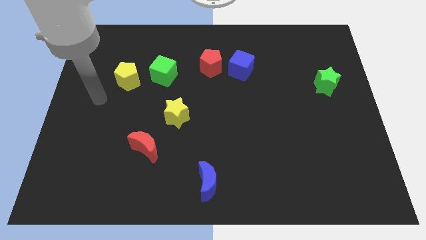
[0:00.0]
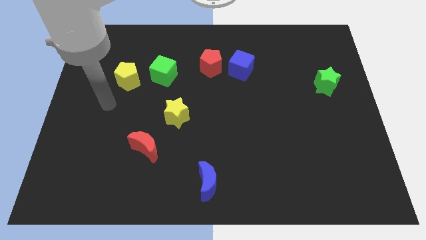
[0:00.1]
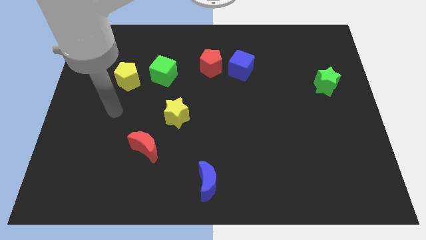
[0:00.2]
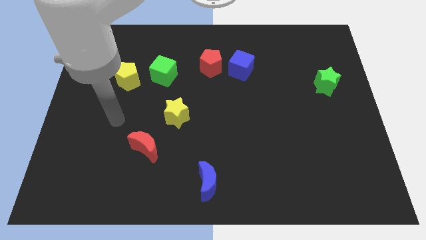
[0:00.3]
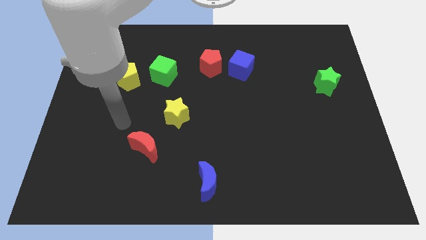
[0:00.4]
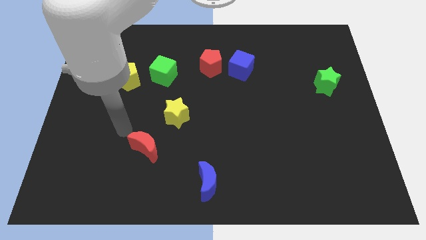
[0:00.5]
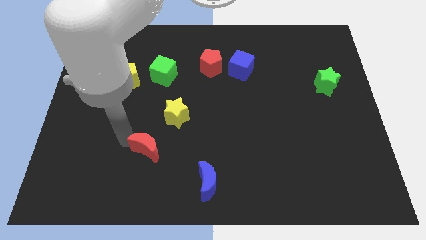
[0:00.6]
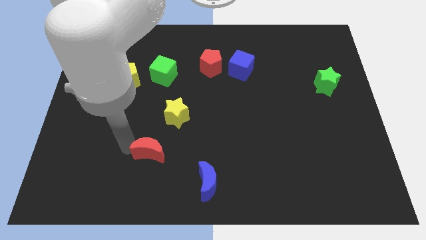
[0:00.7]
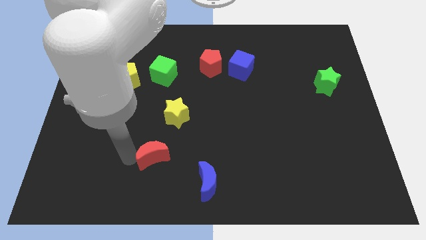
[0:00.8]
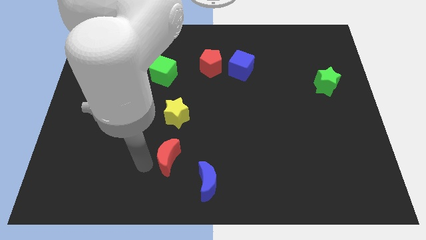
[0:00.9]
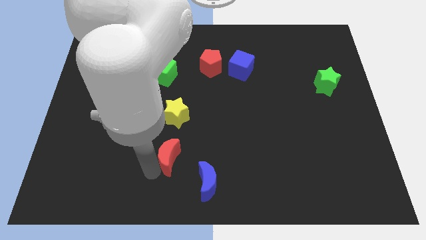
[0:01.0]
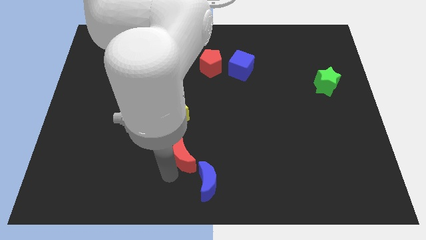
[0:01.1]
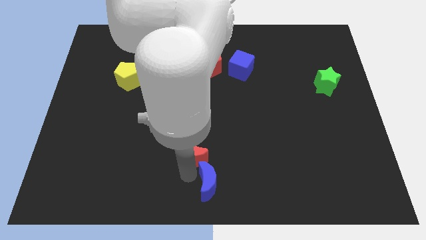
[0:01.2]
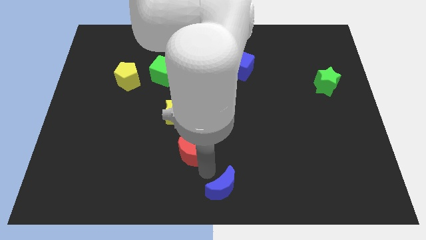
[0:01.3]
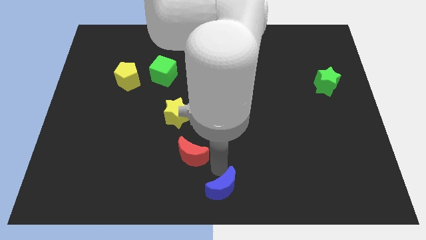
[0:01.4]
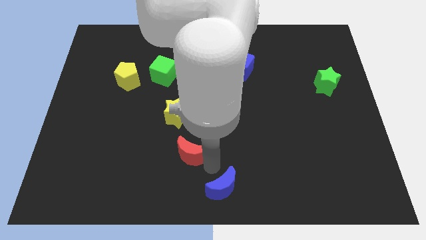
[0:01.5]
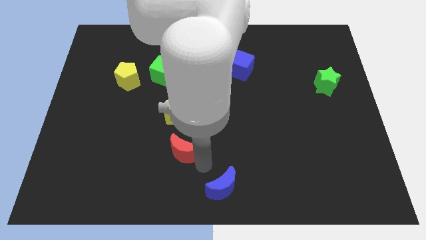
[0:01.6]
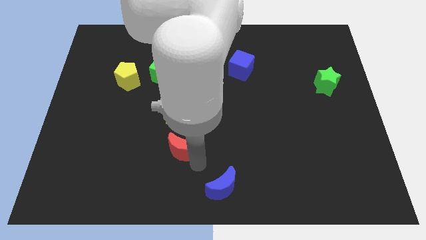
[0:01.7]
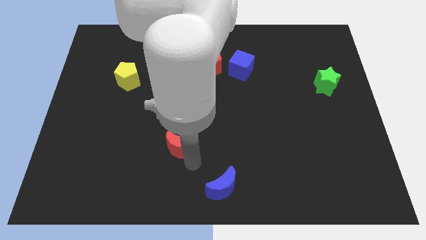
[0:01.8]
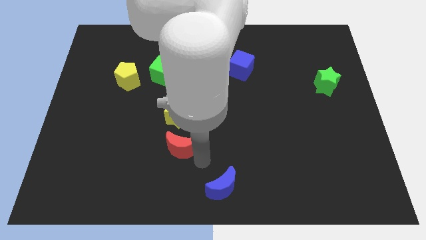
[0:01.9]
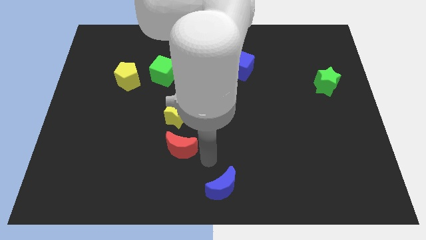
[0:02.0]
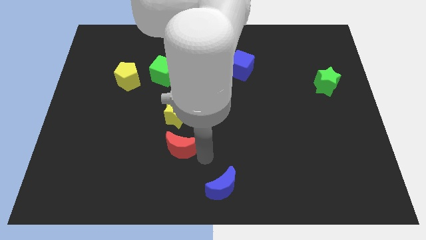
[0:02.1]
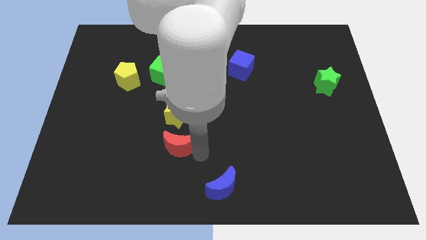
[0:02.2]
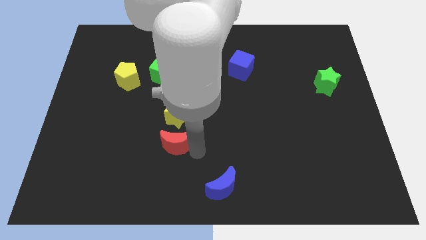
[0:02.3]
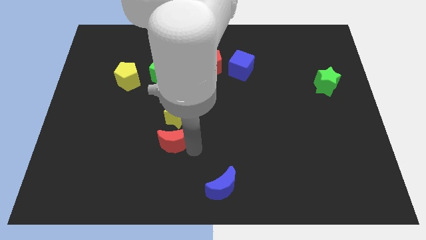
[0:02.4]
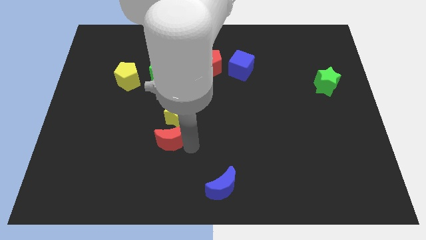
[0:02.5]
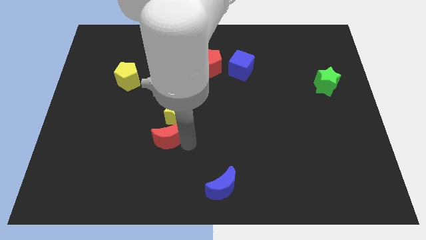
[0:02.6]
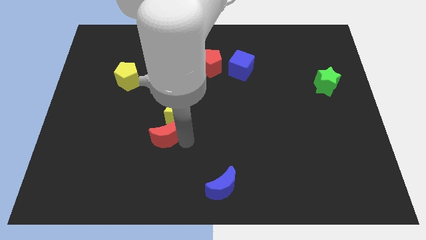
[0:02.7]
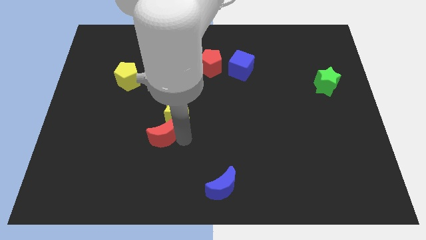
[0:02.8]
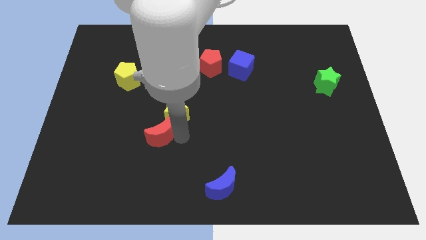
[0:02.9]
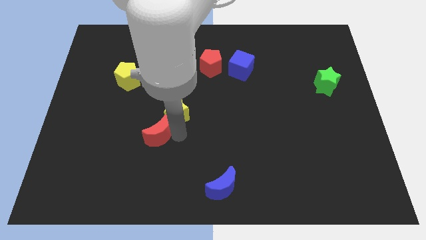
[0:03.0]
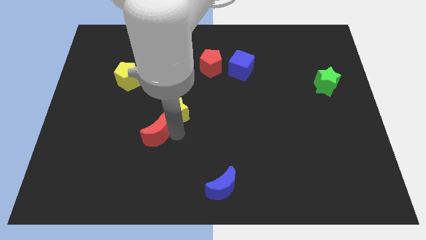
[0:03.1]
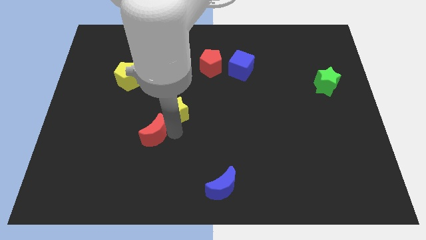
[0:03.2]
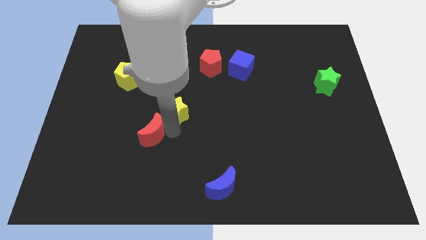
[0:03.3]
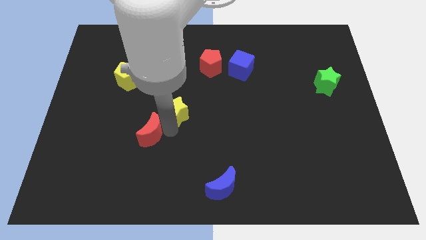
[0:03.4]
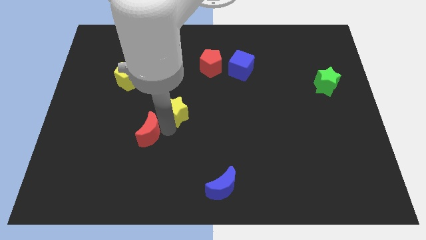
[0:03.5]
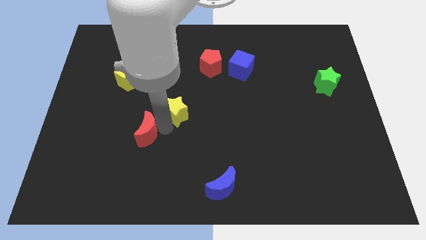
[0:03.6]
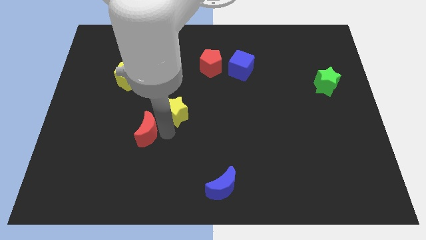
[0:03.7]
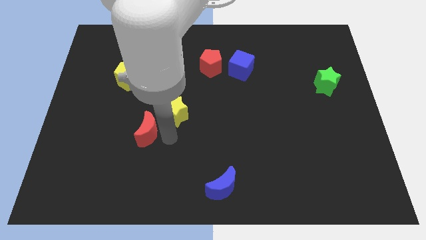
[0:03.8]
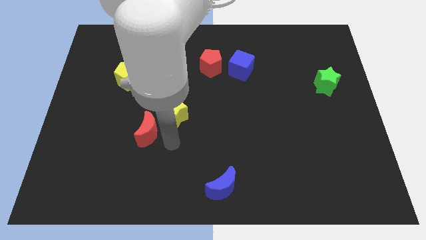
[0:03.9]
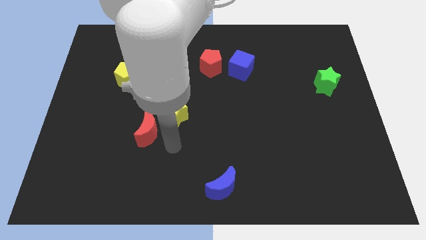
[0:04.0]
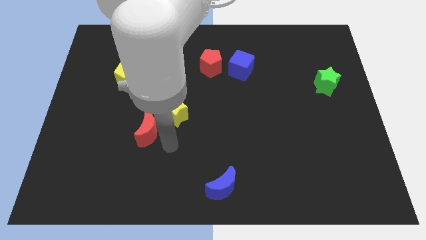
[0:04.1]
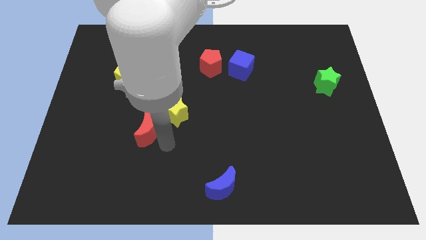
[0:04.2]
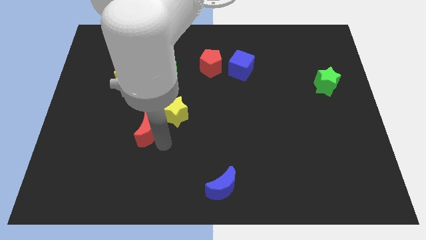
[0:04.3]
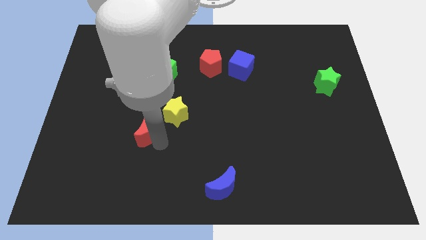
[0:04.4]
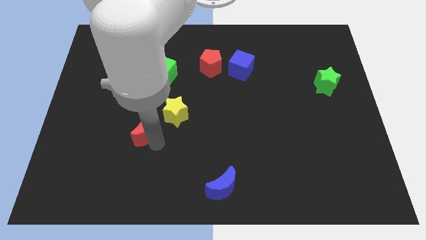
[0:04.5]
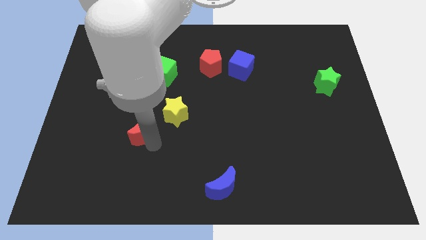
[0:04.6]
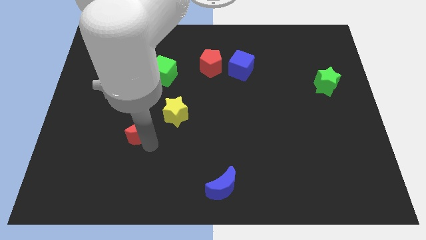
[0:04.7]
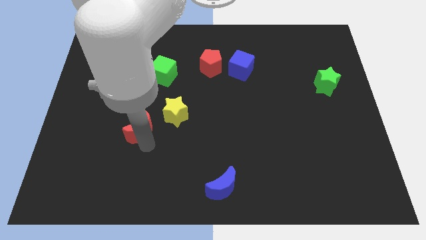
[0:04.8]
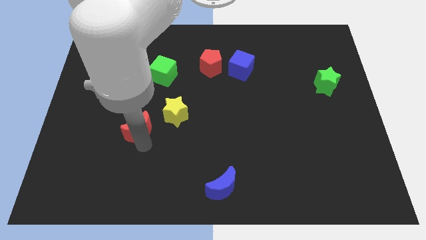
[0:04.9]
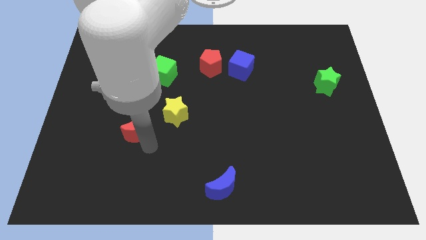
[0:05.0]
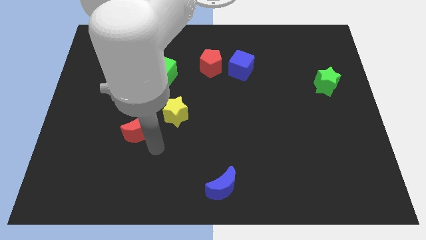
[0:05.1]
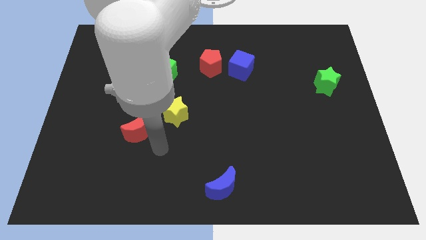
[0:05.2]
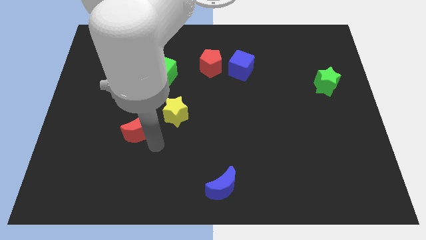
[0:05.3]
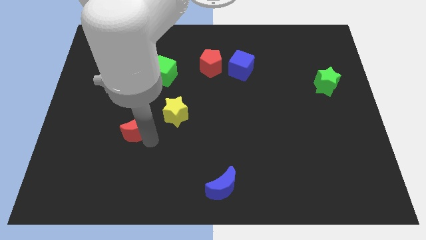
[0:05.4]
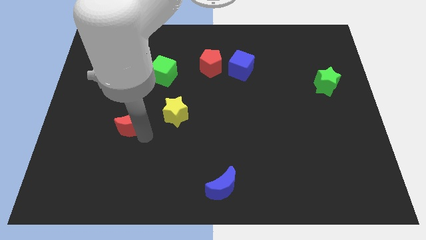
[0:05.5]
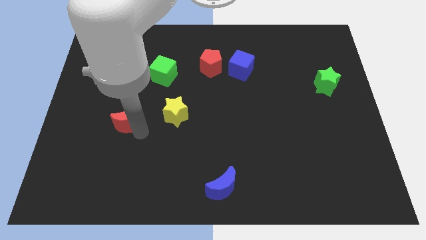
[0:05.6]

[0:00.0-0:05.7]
move the red moon diagonally up and left a bit

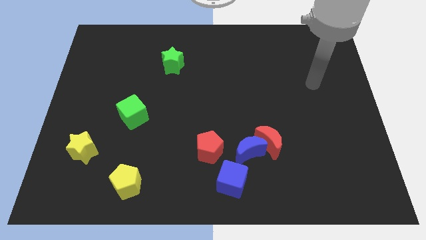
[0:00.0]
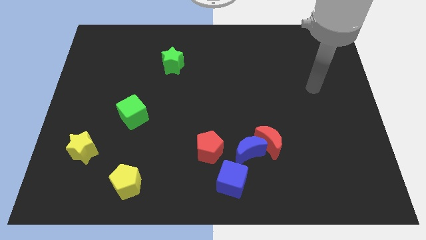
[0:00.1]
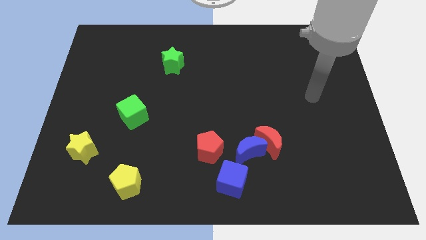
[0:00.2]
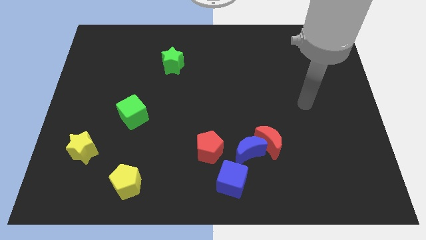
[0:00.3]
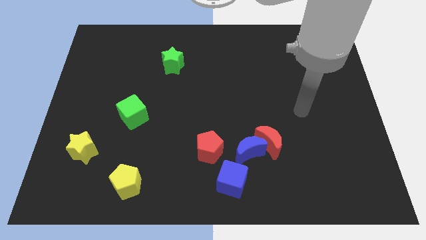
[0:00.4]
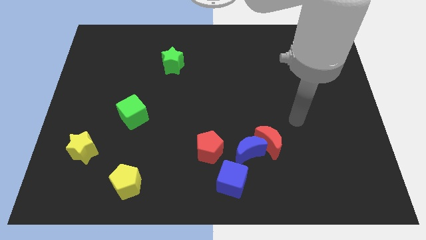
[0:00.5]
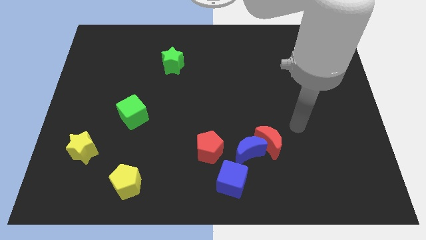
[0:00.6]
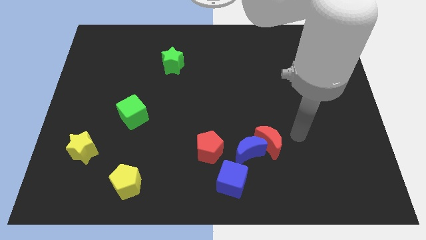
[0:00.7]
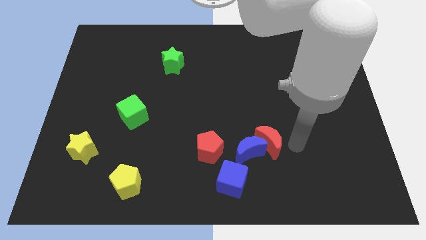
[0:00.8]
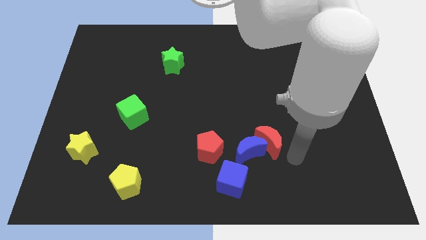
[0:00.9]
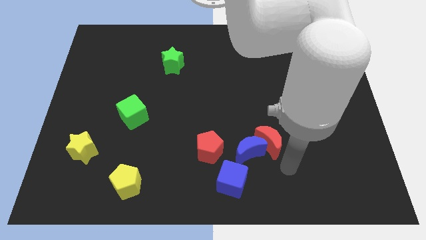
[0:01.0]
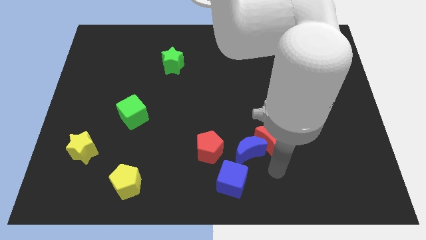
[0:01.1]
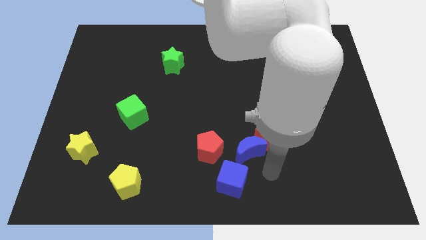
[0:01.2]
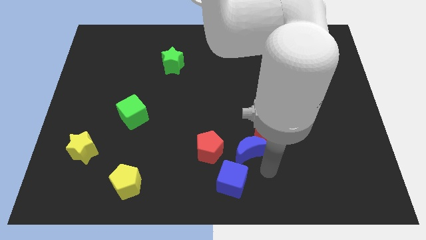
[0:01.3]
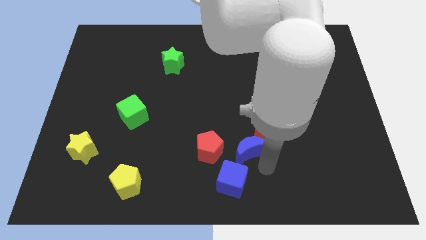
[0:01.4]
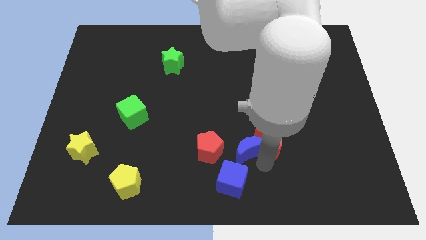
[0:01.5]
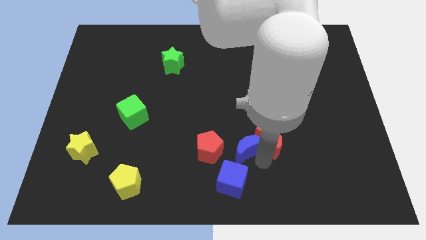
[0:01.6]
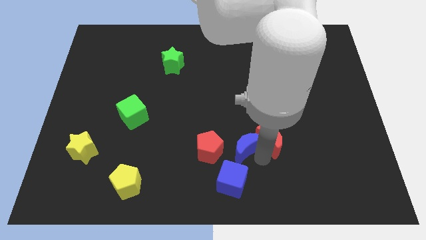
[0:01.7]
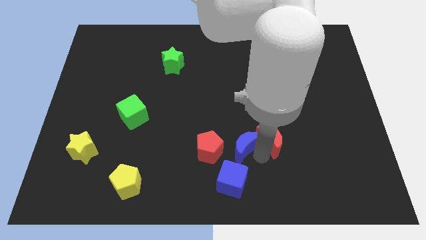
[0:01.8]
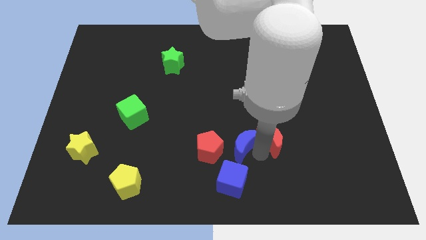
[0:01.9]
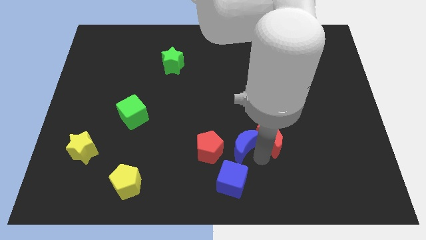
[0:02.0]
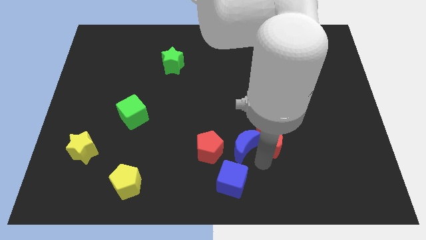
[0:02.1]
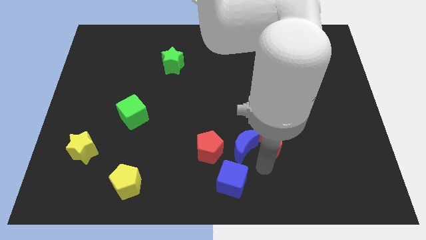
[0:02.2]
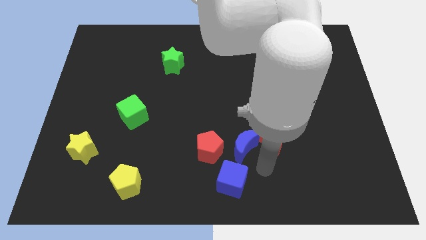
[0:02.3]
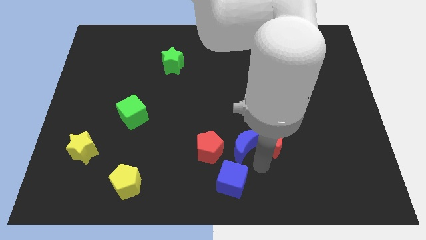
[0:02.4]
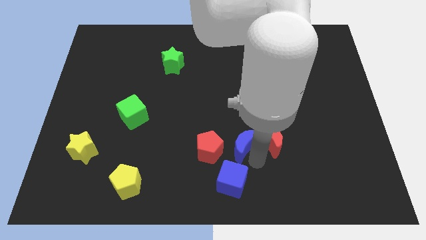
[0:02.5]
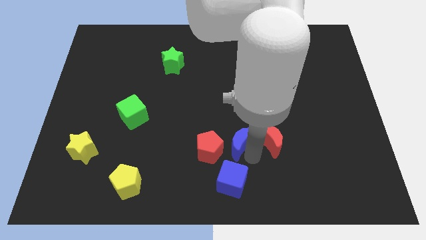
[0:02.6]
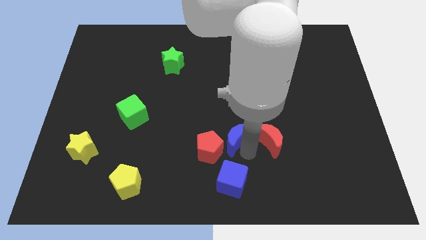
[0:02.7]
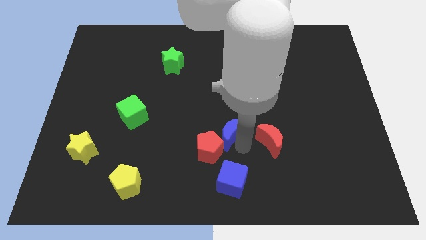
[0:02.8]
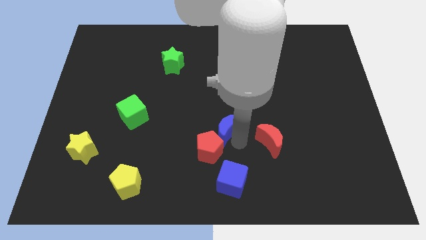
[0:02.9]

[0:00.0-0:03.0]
slightly slide the blue moon up and to the left
